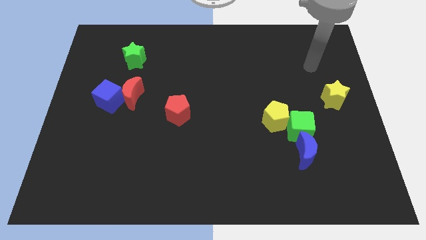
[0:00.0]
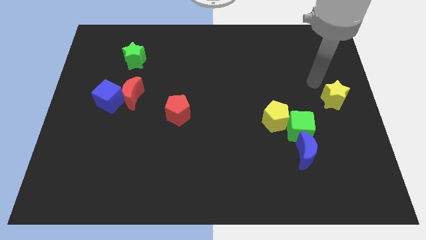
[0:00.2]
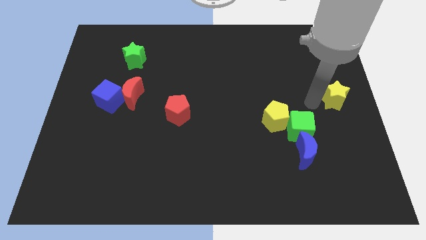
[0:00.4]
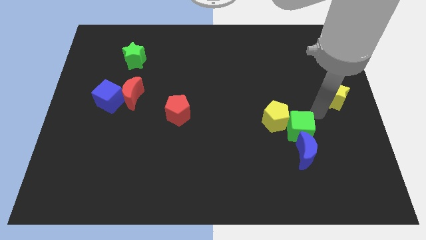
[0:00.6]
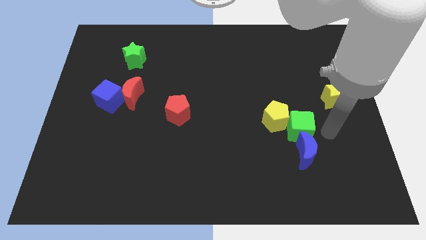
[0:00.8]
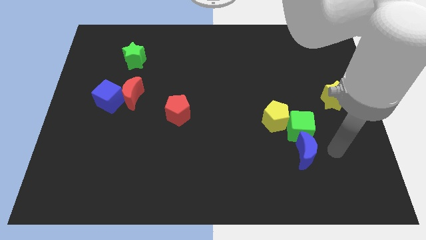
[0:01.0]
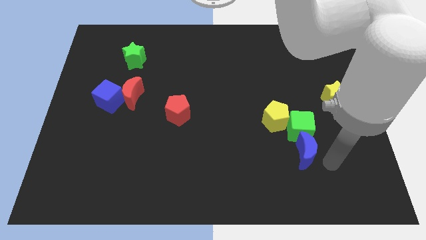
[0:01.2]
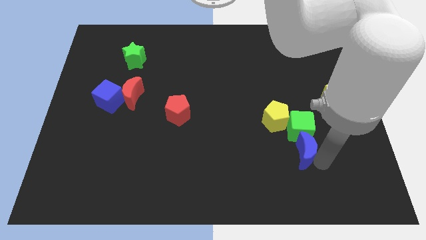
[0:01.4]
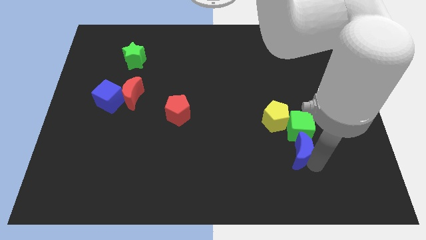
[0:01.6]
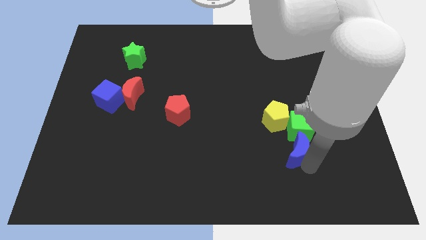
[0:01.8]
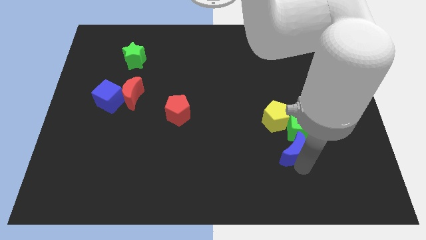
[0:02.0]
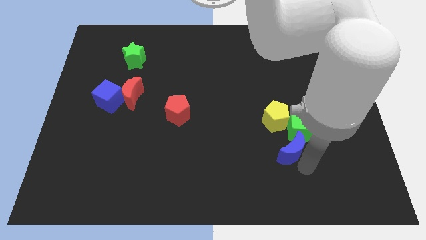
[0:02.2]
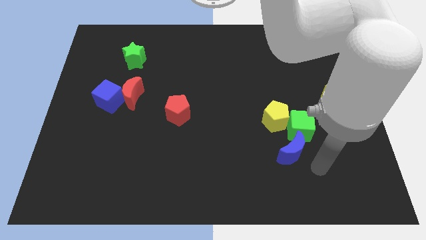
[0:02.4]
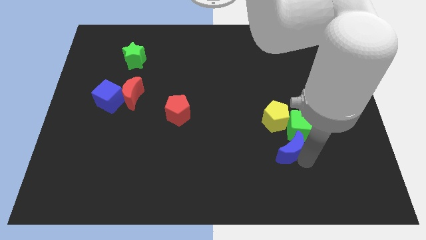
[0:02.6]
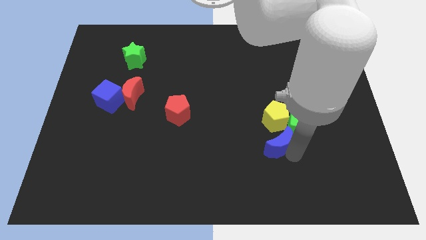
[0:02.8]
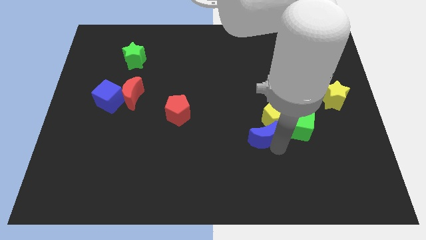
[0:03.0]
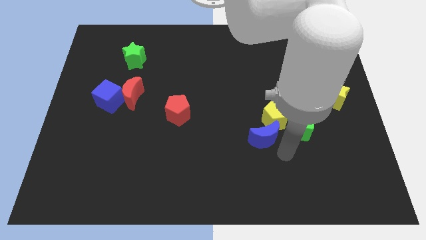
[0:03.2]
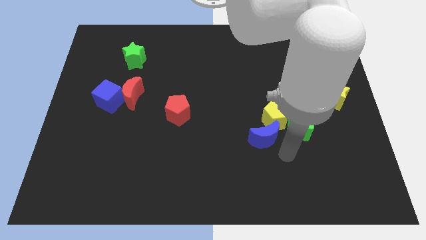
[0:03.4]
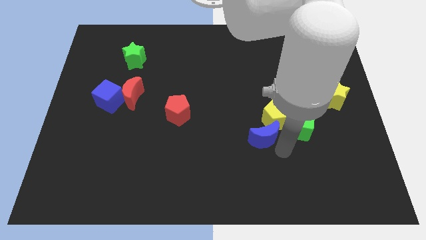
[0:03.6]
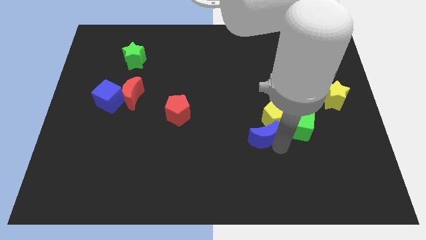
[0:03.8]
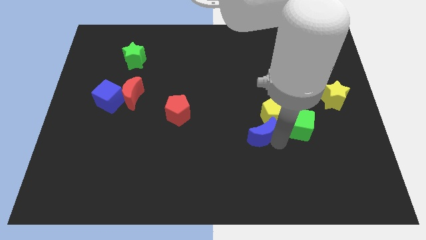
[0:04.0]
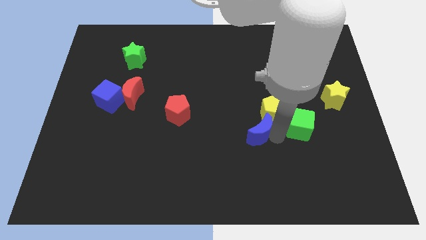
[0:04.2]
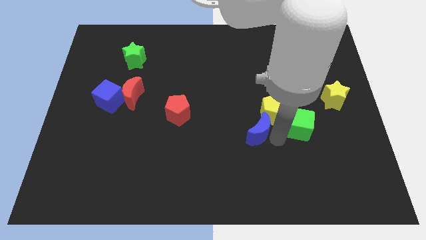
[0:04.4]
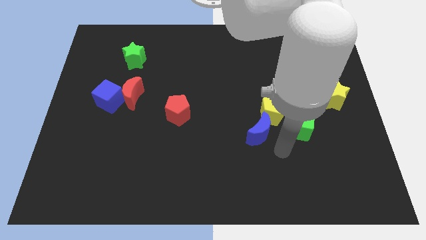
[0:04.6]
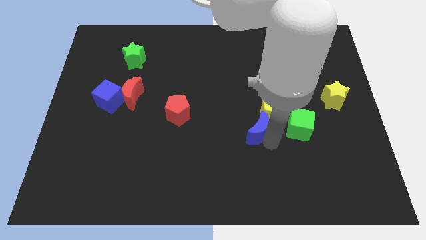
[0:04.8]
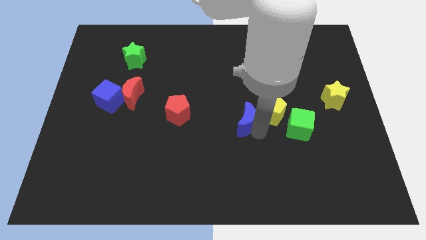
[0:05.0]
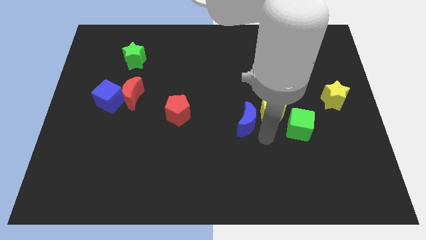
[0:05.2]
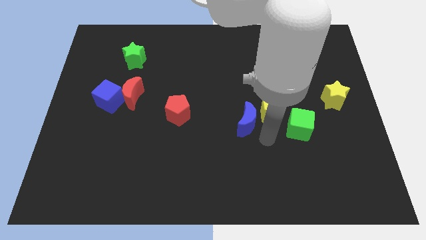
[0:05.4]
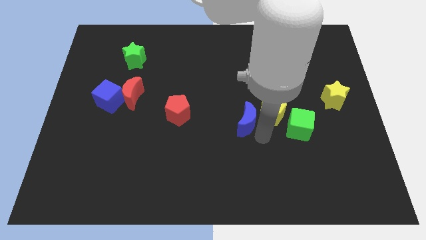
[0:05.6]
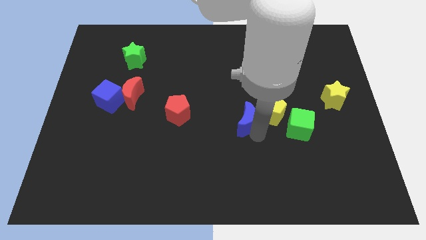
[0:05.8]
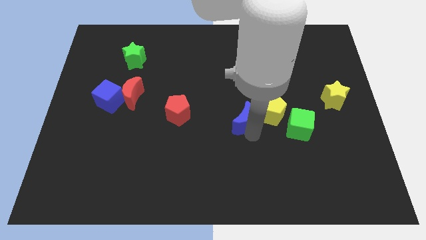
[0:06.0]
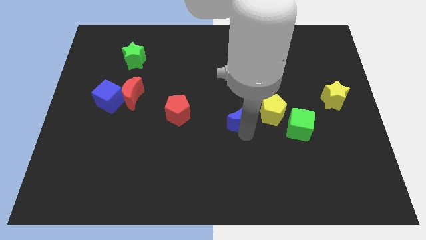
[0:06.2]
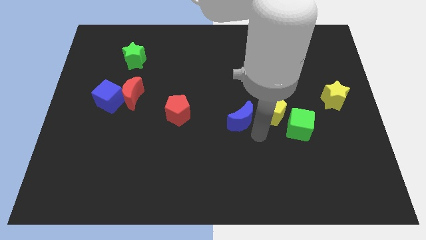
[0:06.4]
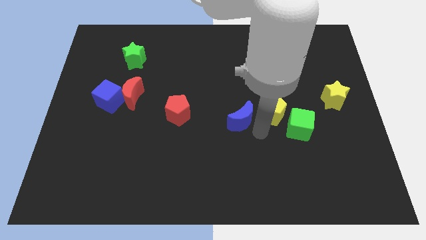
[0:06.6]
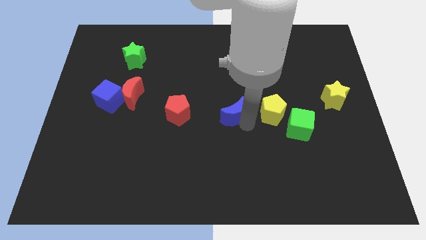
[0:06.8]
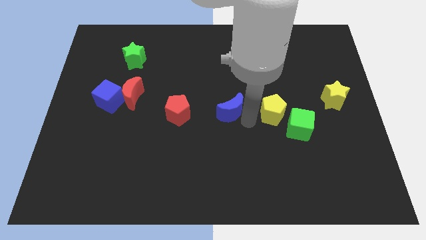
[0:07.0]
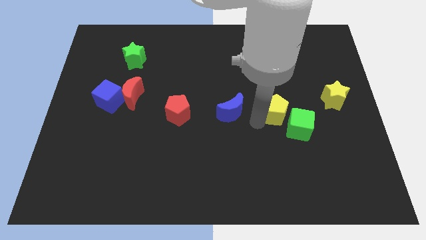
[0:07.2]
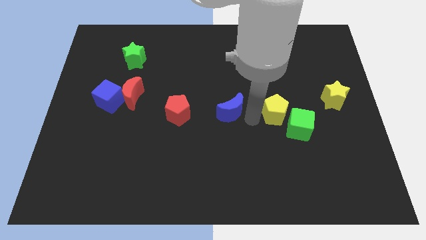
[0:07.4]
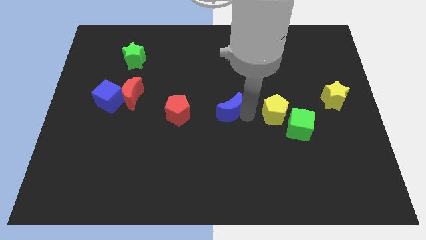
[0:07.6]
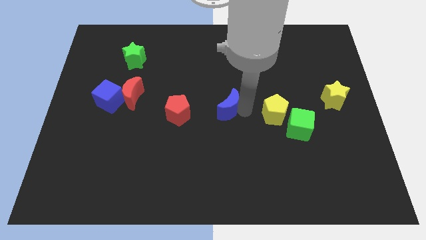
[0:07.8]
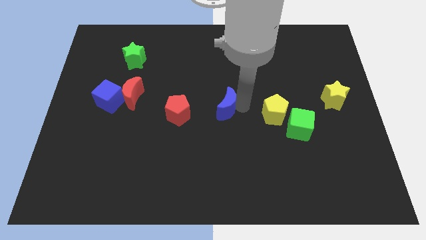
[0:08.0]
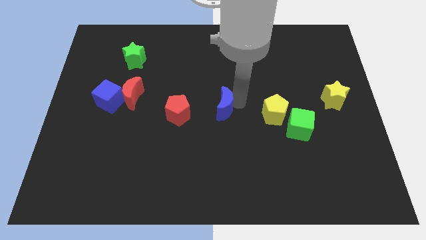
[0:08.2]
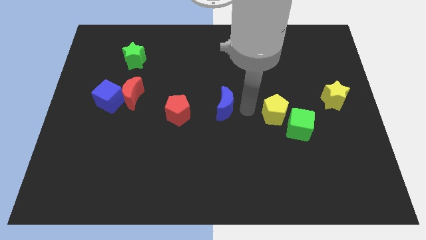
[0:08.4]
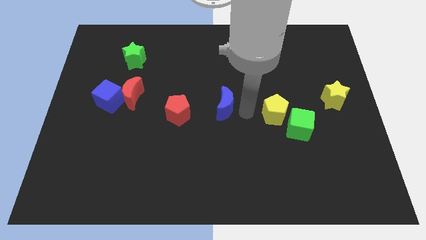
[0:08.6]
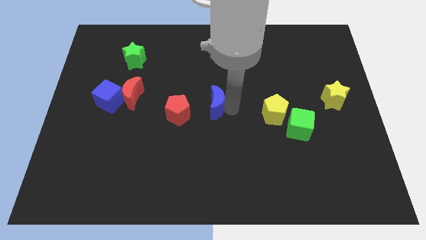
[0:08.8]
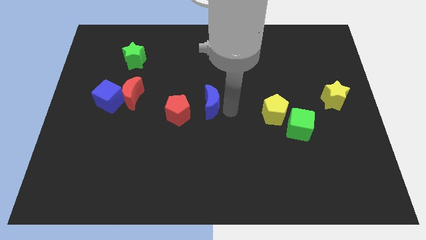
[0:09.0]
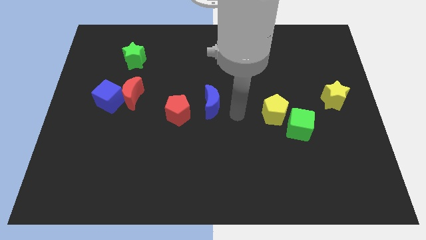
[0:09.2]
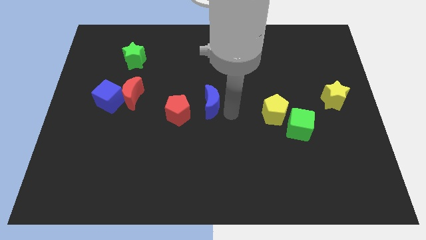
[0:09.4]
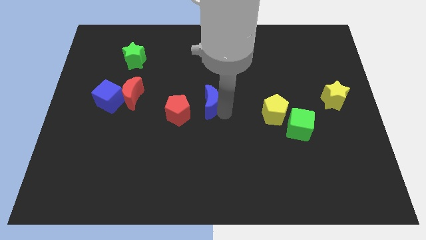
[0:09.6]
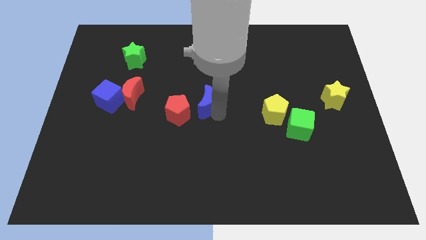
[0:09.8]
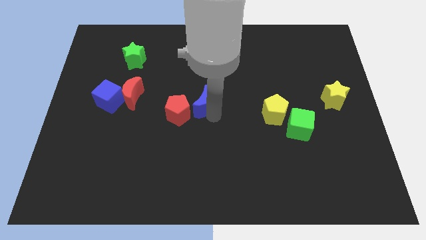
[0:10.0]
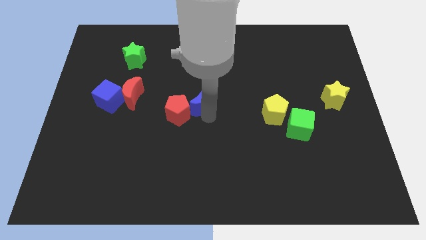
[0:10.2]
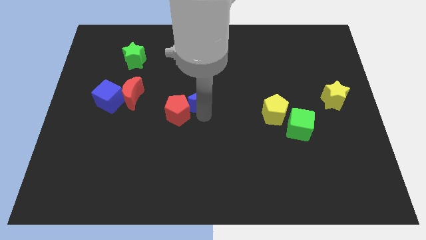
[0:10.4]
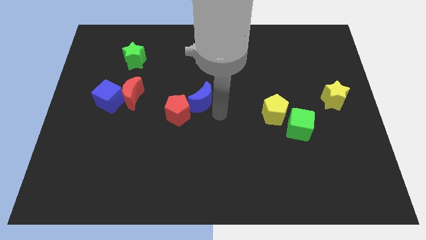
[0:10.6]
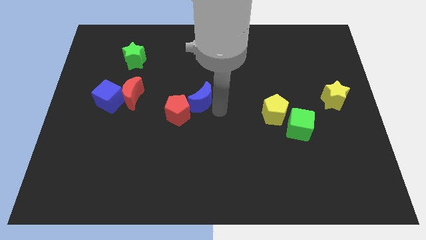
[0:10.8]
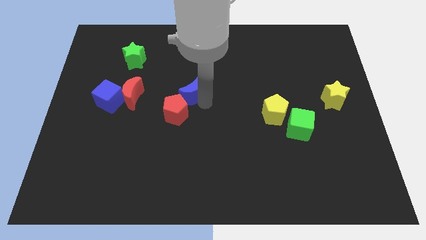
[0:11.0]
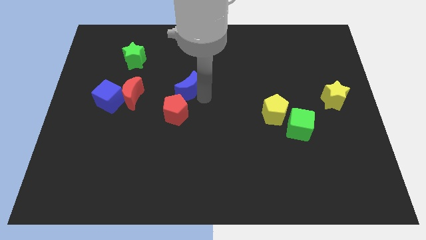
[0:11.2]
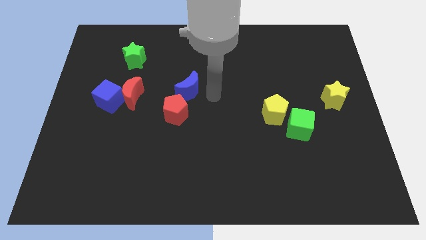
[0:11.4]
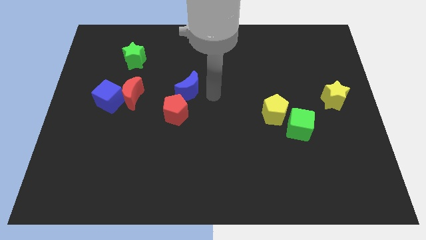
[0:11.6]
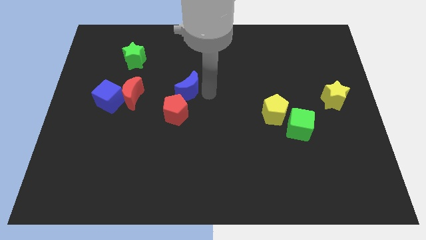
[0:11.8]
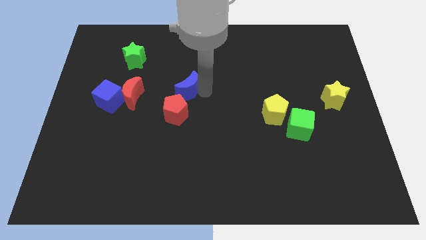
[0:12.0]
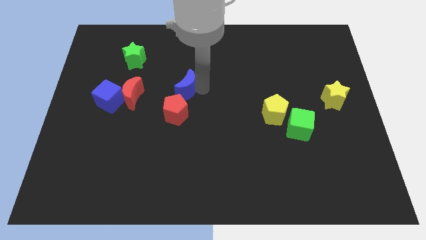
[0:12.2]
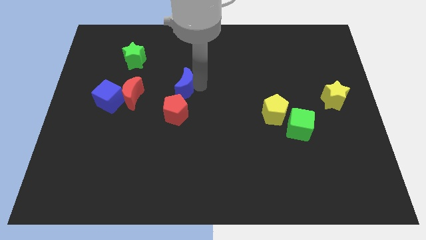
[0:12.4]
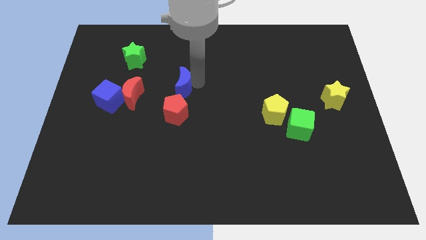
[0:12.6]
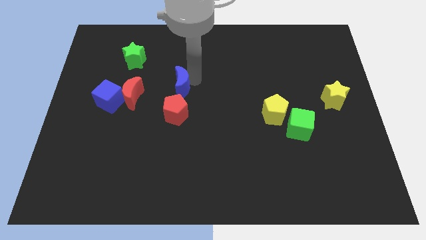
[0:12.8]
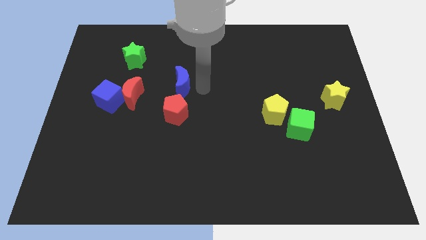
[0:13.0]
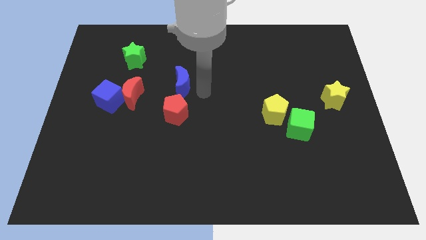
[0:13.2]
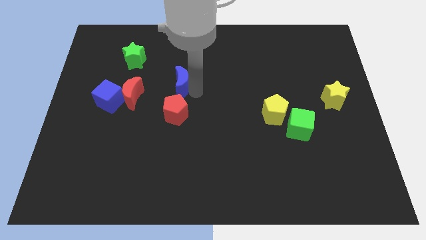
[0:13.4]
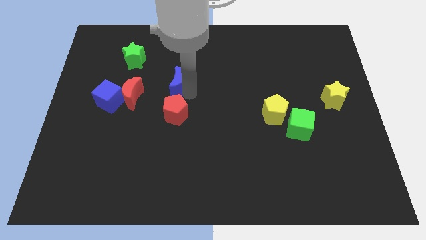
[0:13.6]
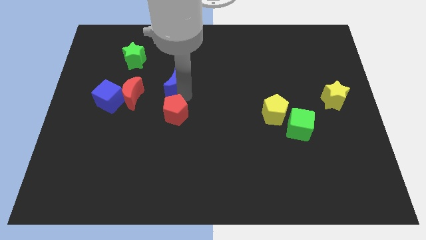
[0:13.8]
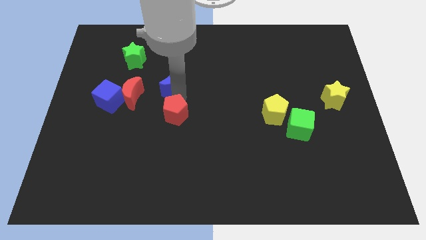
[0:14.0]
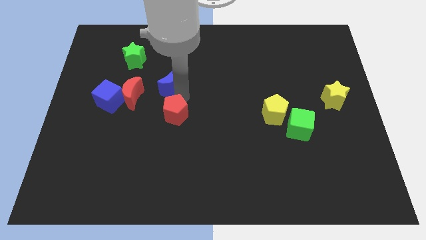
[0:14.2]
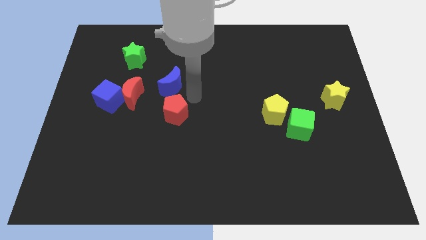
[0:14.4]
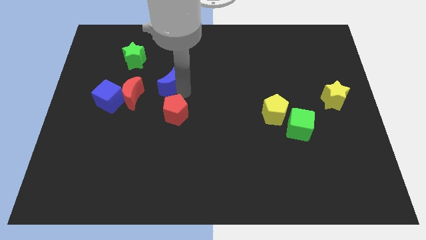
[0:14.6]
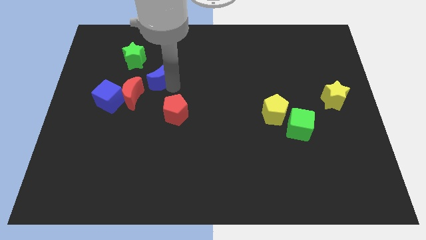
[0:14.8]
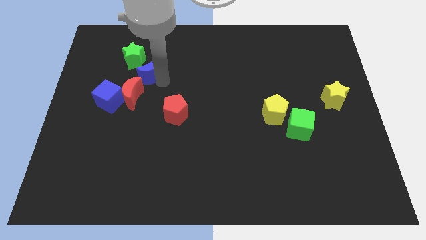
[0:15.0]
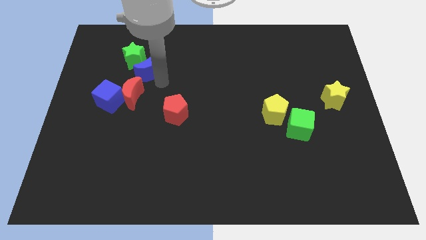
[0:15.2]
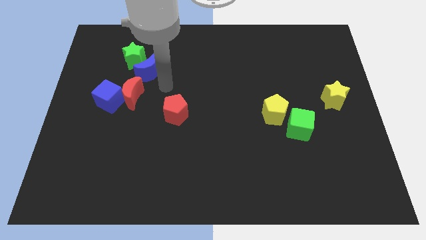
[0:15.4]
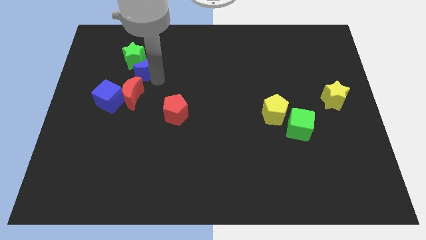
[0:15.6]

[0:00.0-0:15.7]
push the blue moon next to the green star
